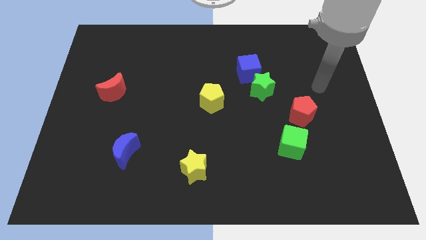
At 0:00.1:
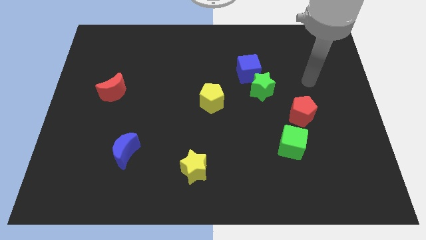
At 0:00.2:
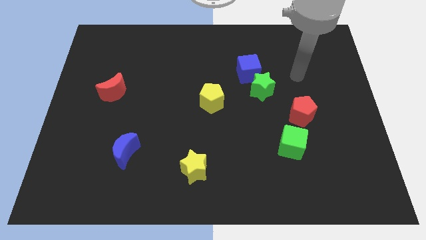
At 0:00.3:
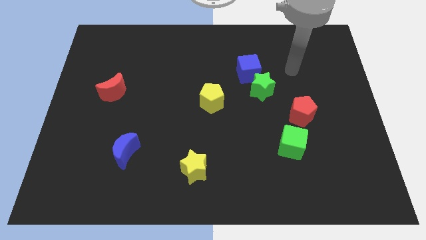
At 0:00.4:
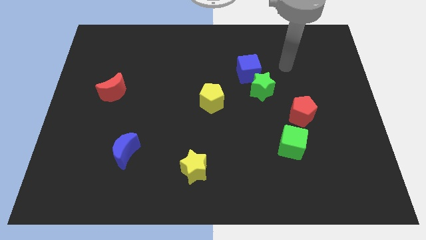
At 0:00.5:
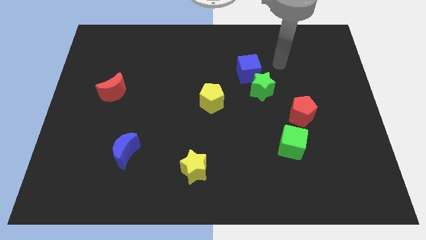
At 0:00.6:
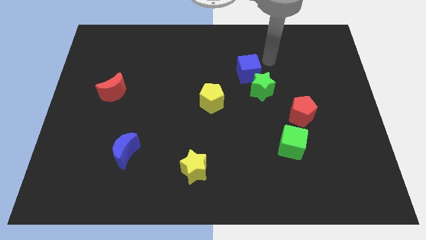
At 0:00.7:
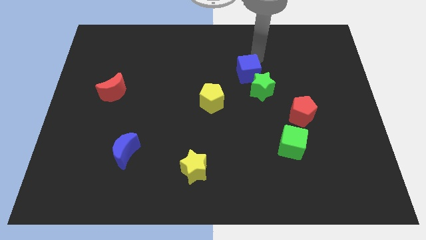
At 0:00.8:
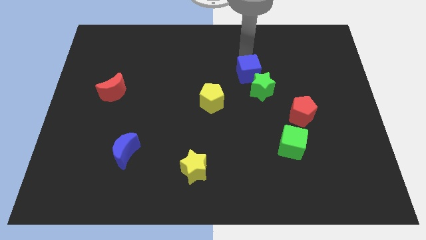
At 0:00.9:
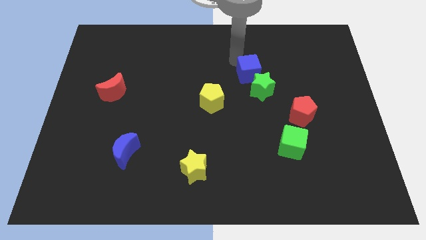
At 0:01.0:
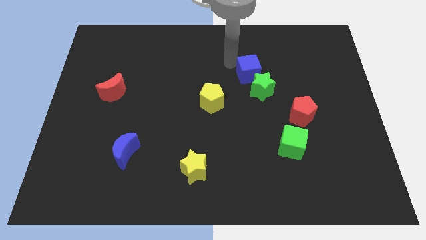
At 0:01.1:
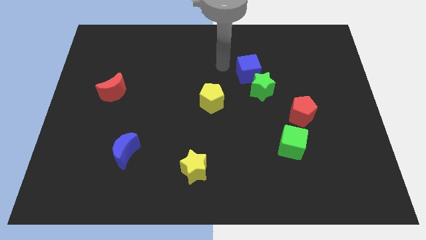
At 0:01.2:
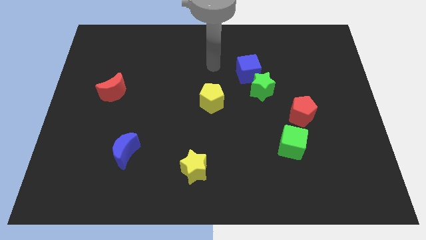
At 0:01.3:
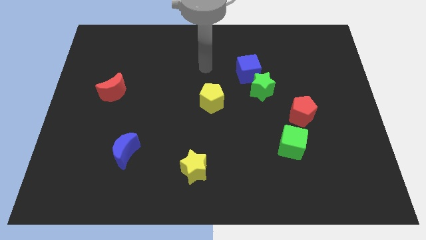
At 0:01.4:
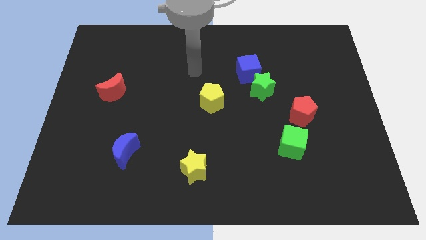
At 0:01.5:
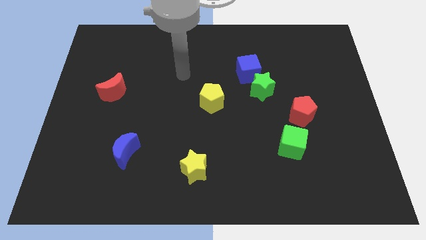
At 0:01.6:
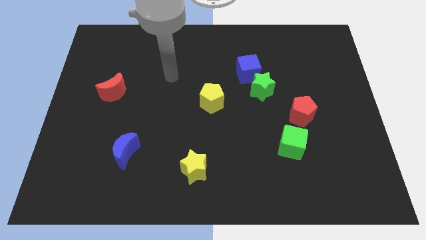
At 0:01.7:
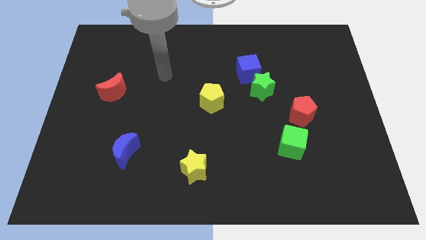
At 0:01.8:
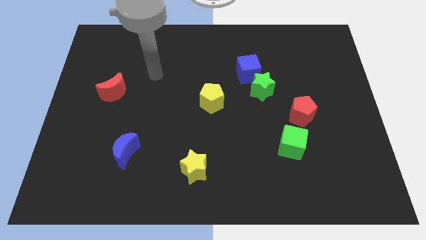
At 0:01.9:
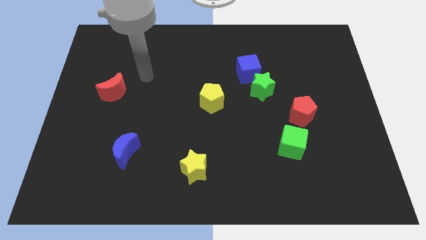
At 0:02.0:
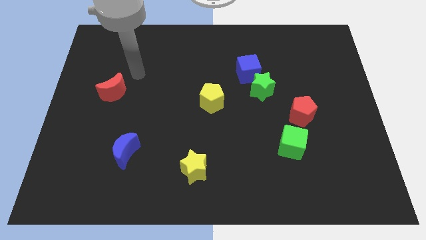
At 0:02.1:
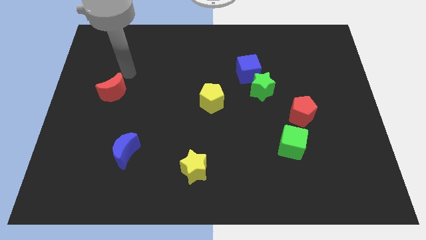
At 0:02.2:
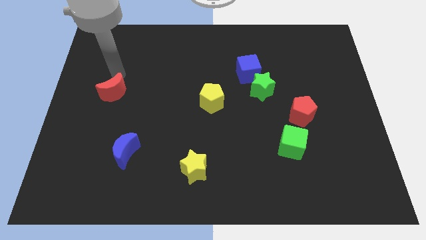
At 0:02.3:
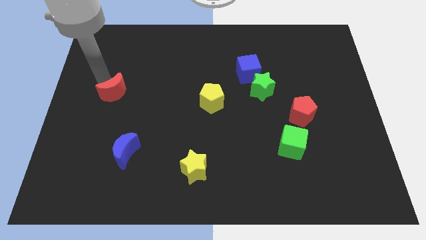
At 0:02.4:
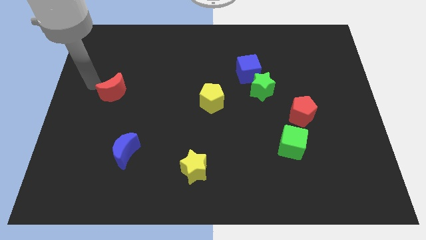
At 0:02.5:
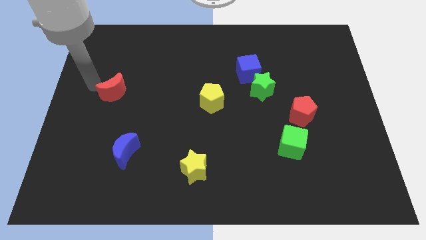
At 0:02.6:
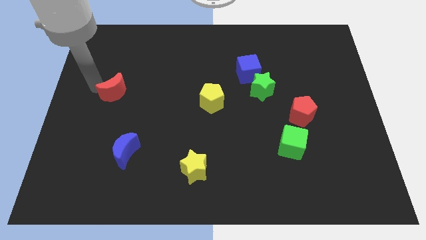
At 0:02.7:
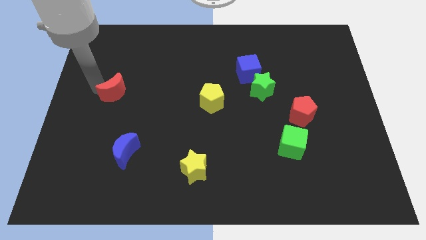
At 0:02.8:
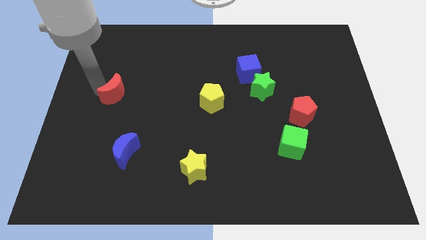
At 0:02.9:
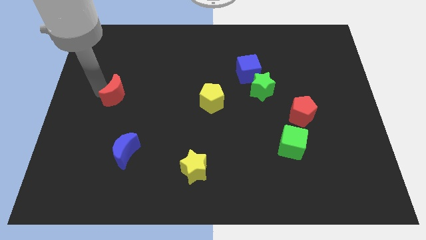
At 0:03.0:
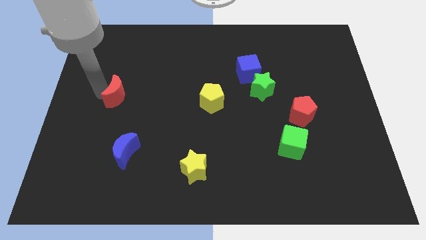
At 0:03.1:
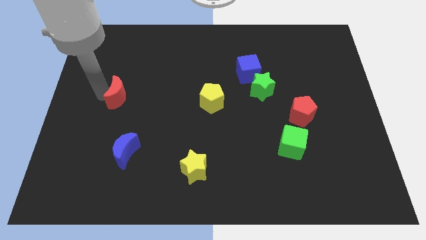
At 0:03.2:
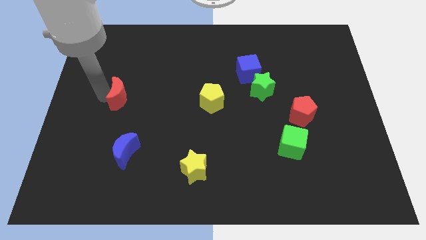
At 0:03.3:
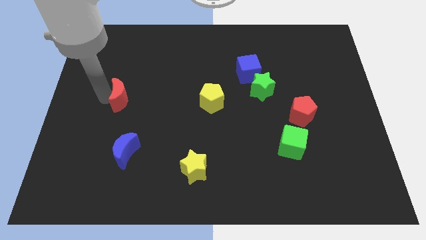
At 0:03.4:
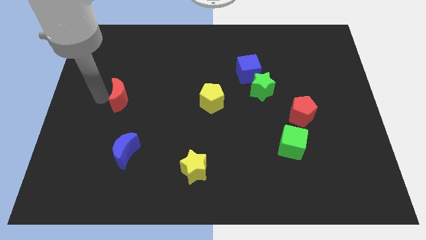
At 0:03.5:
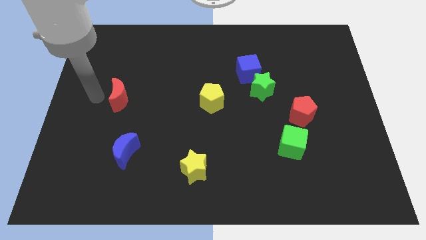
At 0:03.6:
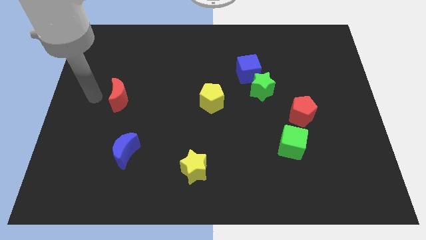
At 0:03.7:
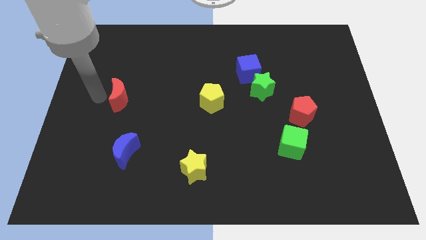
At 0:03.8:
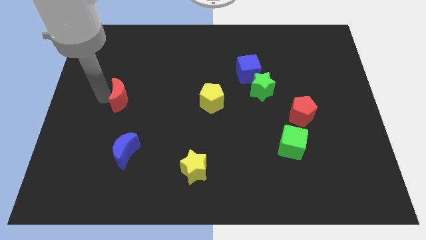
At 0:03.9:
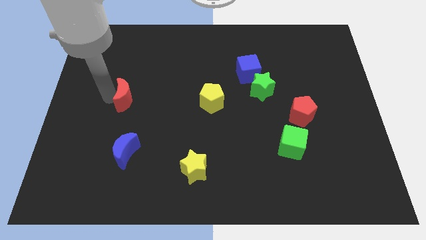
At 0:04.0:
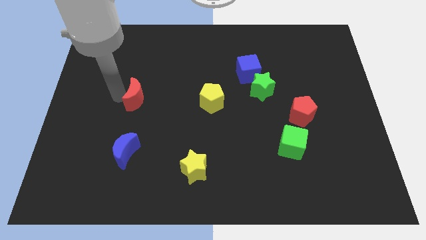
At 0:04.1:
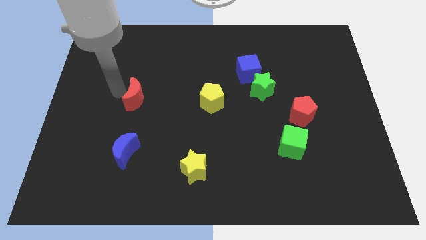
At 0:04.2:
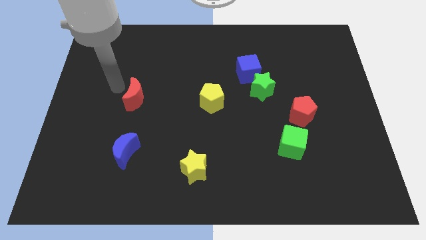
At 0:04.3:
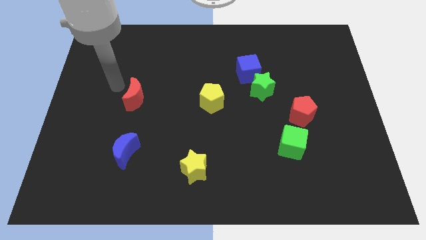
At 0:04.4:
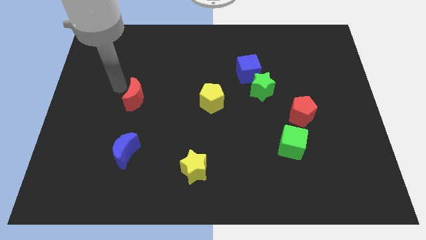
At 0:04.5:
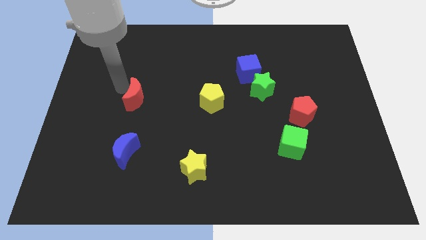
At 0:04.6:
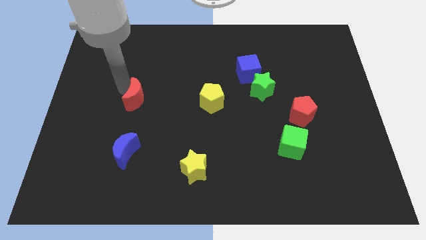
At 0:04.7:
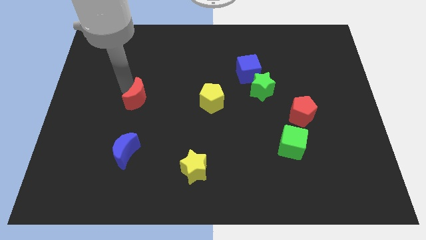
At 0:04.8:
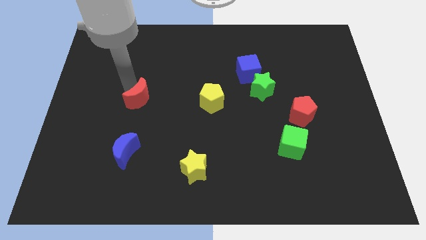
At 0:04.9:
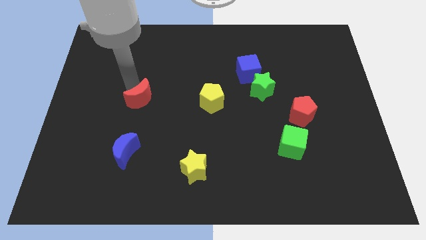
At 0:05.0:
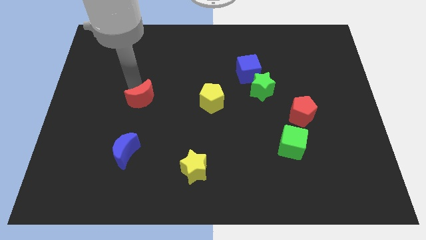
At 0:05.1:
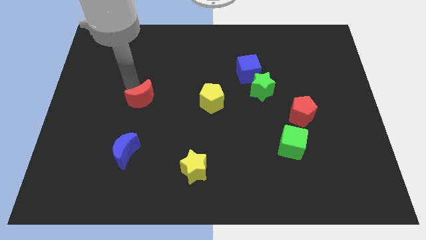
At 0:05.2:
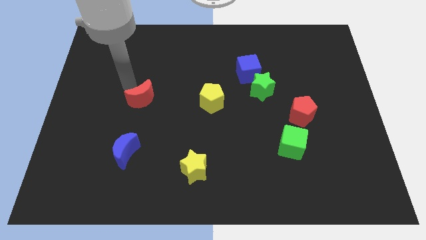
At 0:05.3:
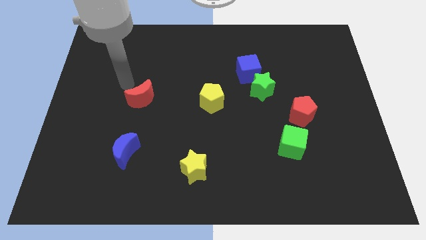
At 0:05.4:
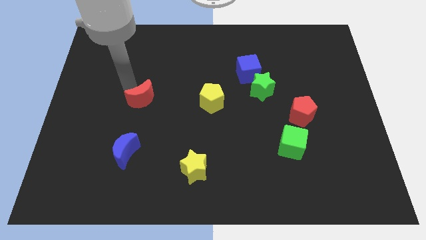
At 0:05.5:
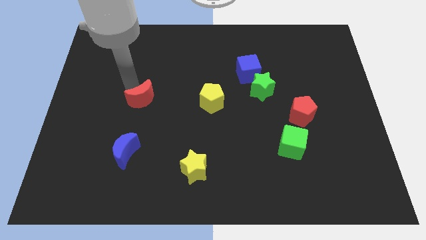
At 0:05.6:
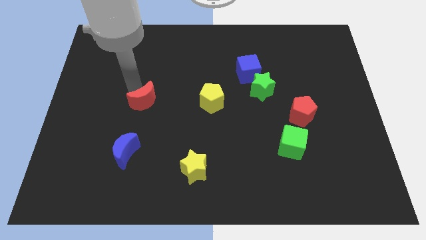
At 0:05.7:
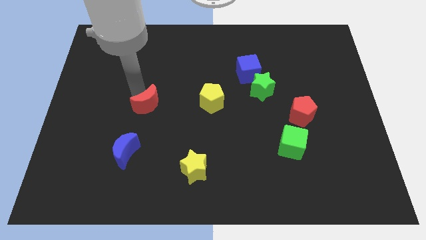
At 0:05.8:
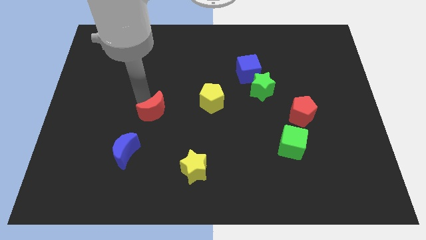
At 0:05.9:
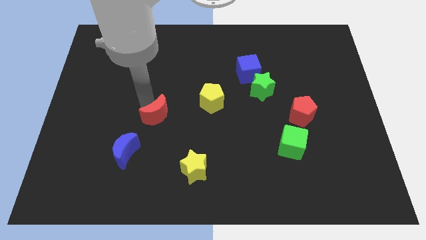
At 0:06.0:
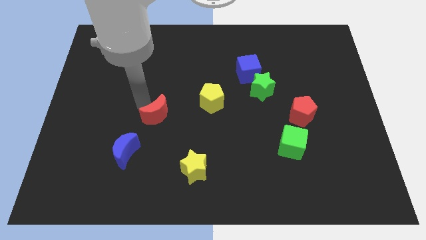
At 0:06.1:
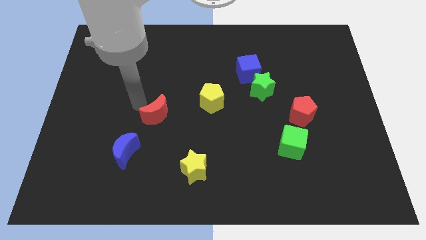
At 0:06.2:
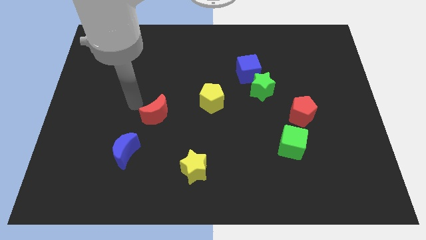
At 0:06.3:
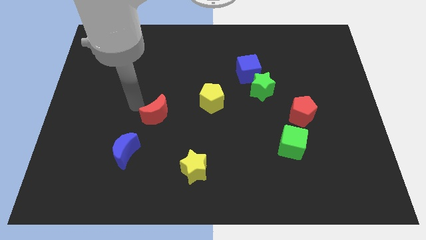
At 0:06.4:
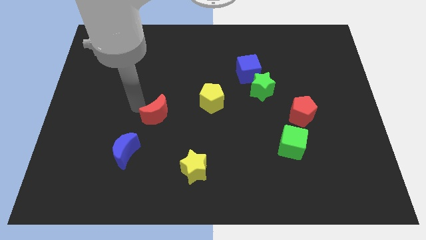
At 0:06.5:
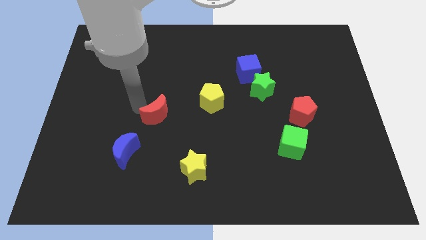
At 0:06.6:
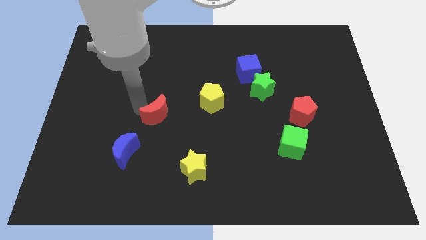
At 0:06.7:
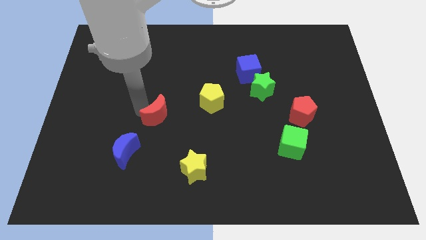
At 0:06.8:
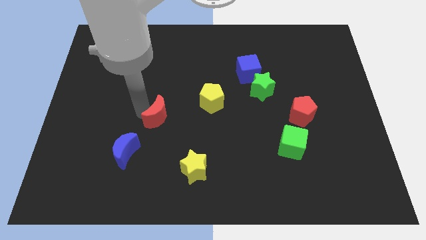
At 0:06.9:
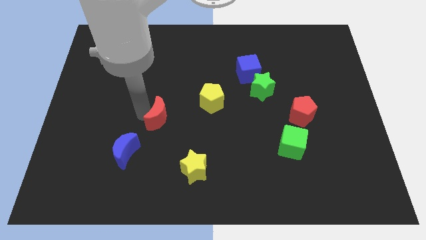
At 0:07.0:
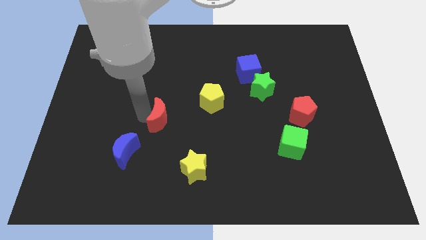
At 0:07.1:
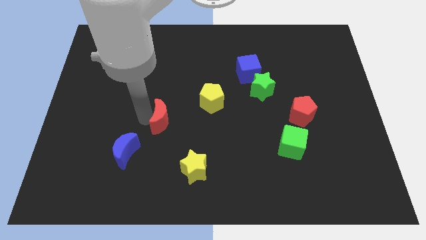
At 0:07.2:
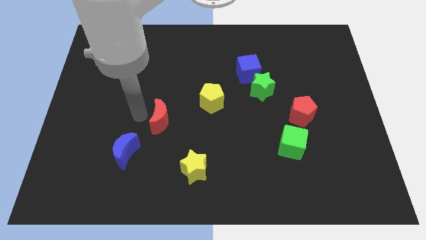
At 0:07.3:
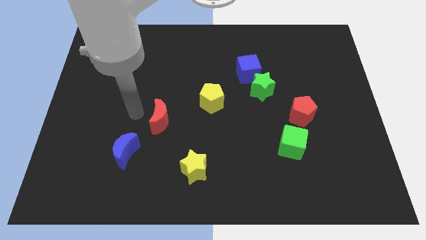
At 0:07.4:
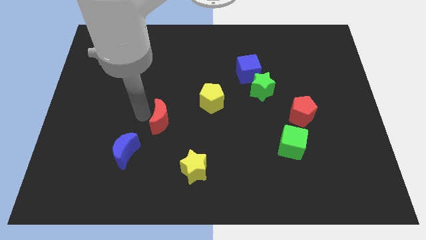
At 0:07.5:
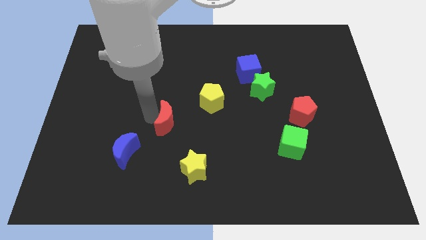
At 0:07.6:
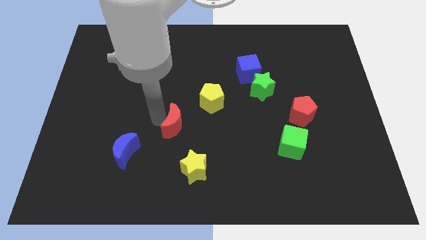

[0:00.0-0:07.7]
push the red moon to the top side of the yellow star
